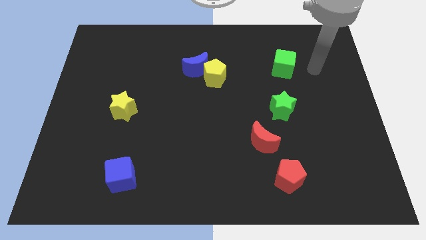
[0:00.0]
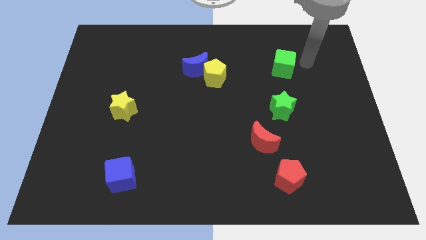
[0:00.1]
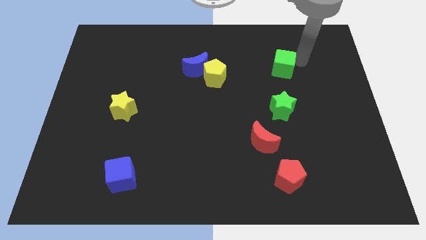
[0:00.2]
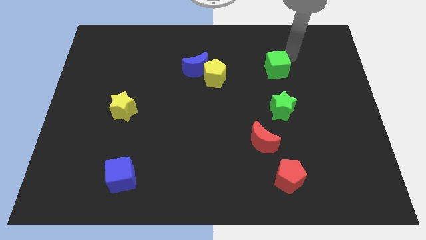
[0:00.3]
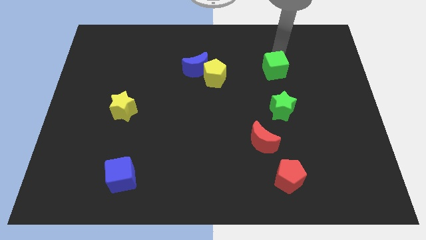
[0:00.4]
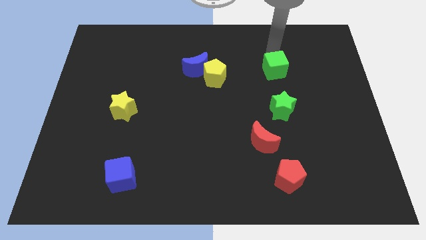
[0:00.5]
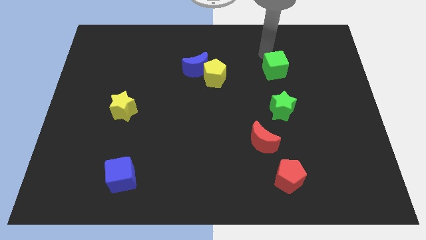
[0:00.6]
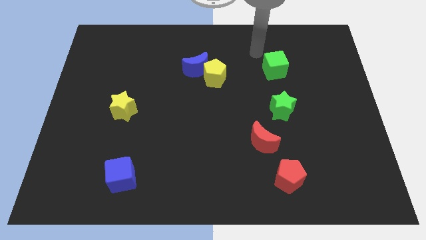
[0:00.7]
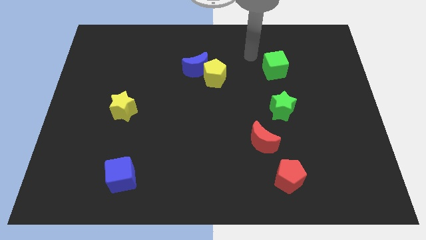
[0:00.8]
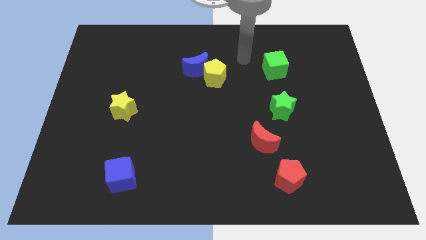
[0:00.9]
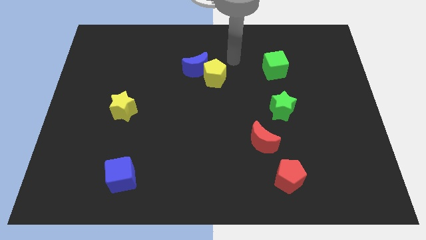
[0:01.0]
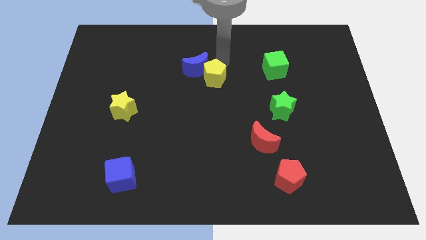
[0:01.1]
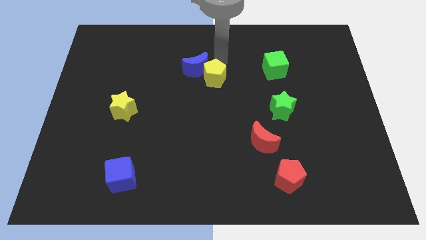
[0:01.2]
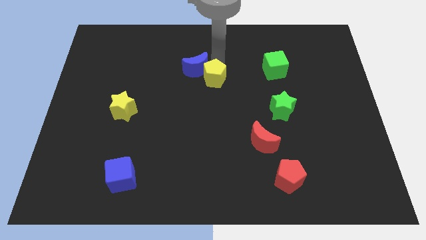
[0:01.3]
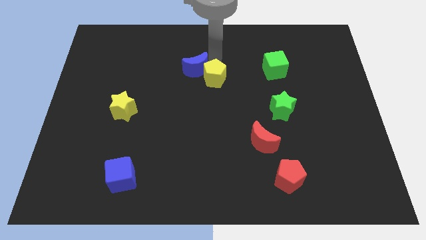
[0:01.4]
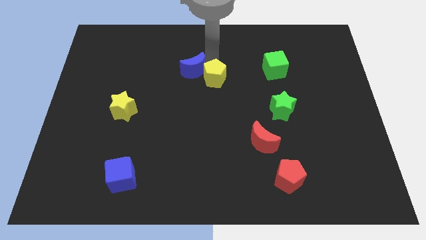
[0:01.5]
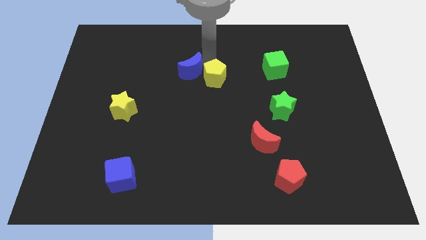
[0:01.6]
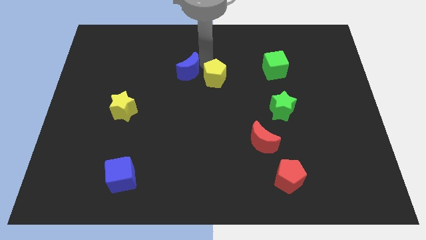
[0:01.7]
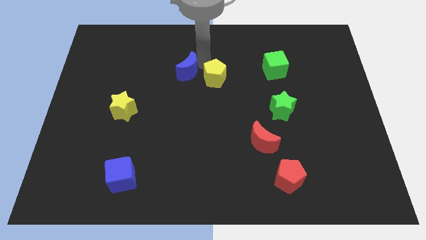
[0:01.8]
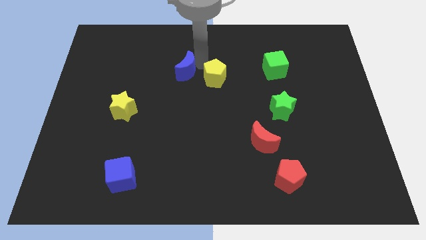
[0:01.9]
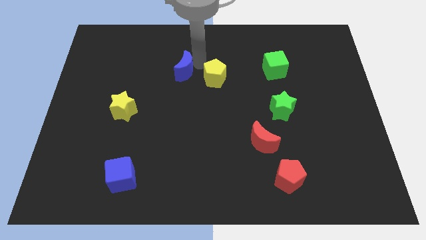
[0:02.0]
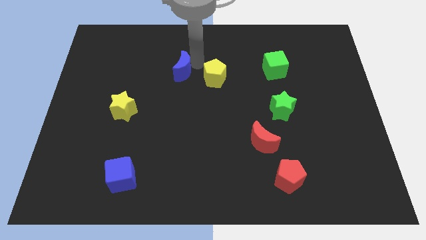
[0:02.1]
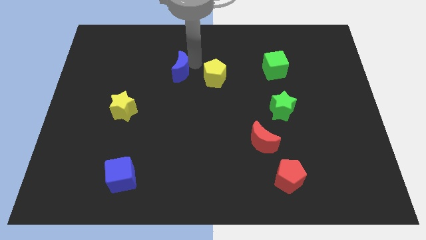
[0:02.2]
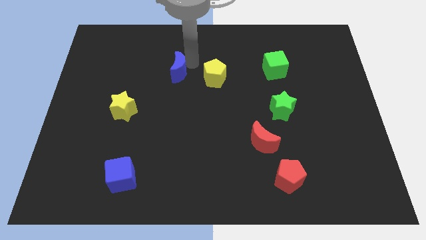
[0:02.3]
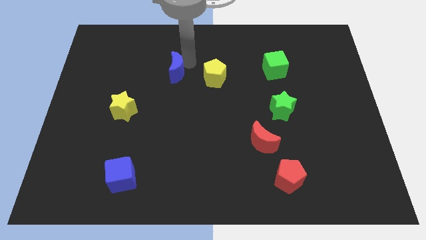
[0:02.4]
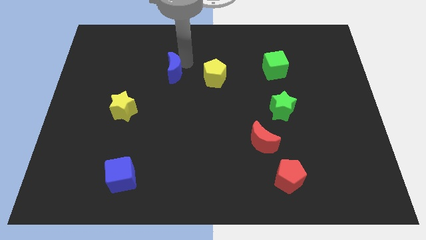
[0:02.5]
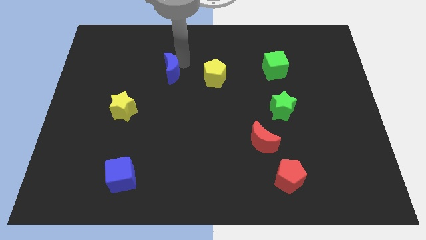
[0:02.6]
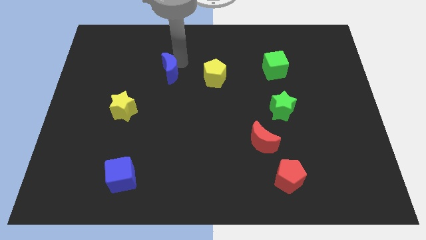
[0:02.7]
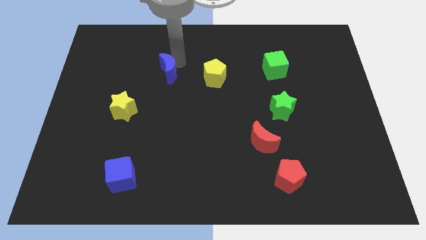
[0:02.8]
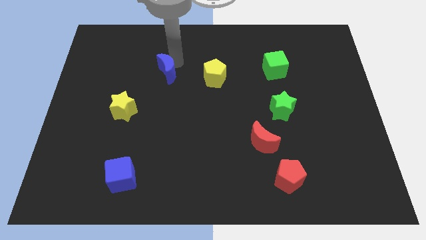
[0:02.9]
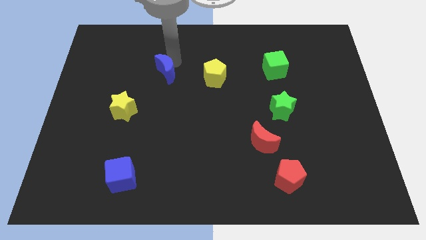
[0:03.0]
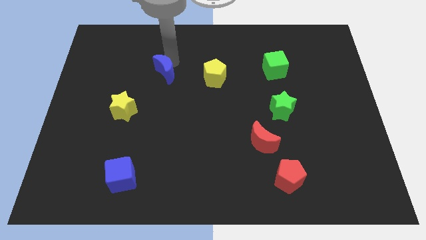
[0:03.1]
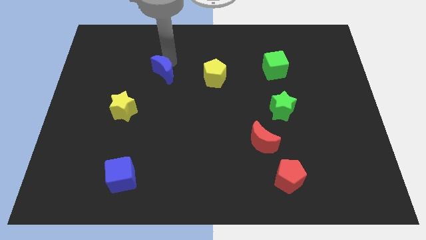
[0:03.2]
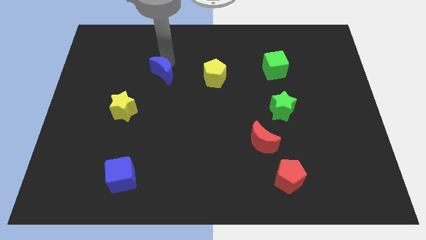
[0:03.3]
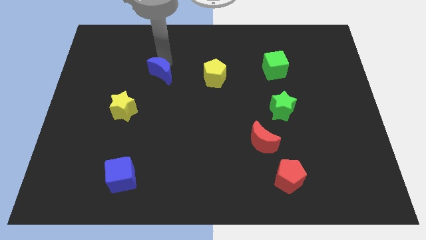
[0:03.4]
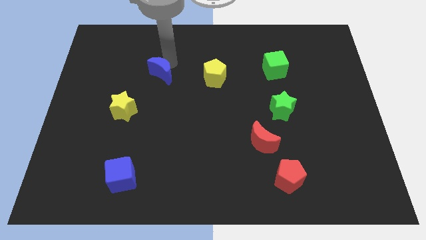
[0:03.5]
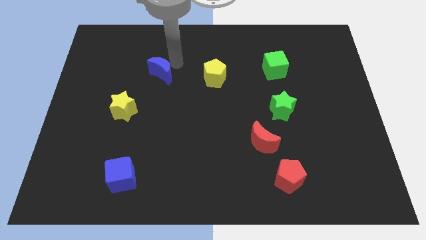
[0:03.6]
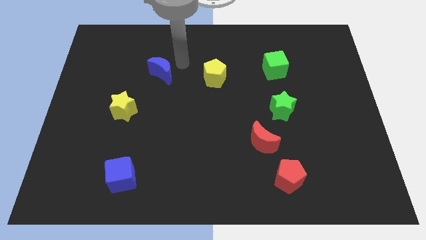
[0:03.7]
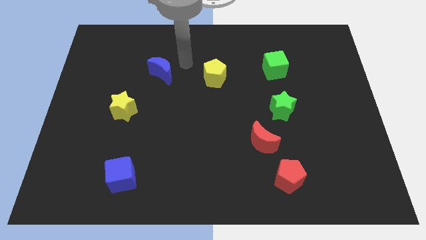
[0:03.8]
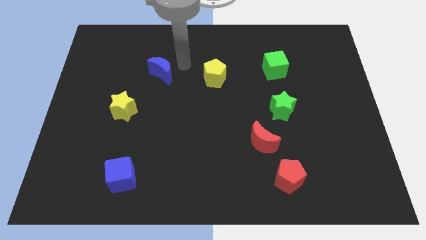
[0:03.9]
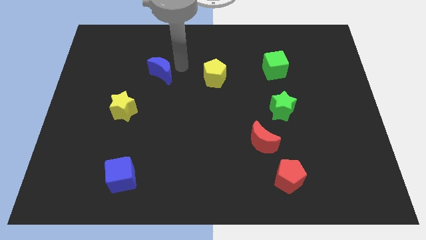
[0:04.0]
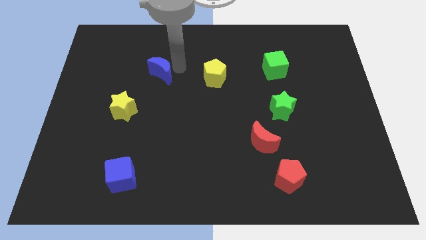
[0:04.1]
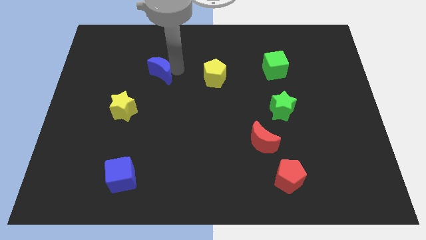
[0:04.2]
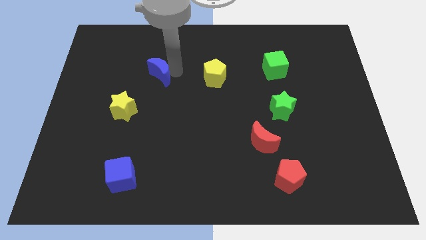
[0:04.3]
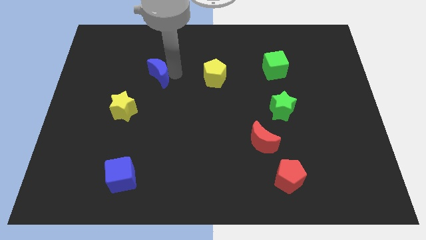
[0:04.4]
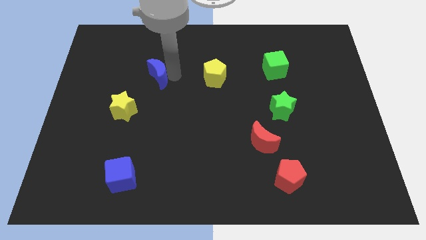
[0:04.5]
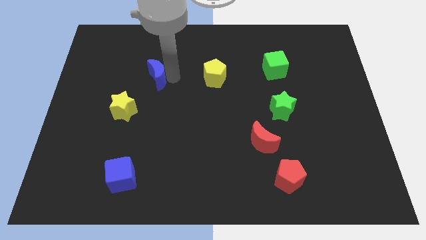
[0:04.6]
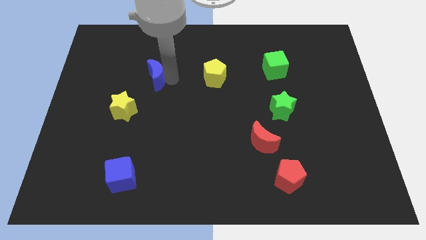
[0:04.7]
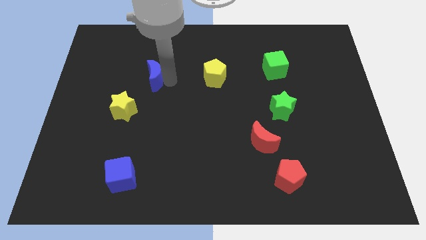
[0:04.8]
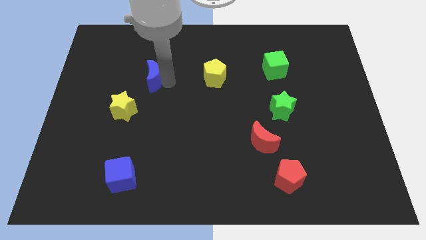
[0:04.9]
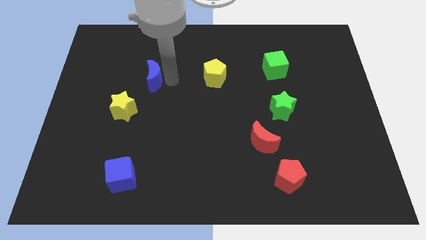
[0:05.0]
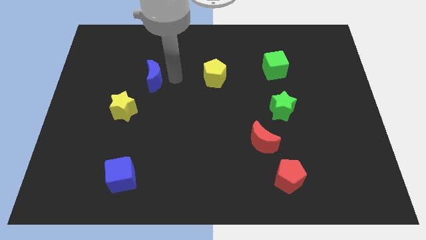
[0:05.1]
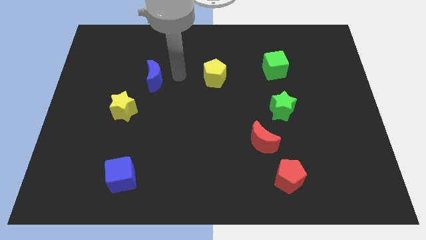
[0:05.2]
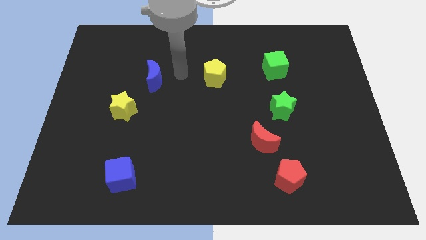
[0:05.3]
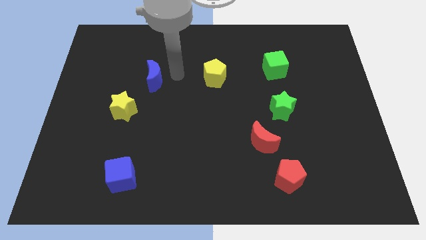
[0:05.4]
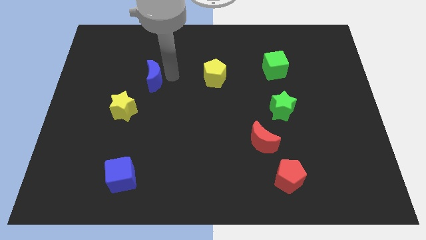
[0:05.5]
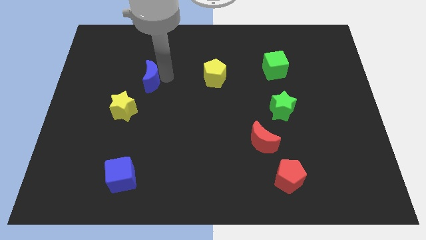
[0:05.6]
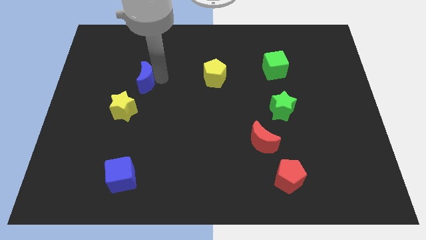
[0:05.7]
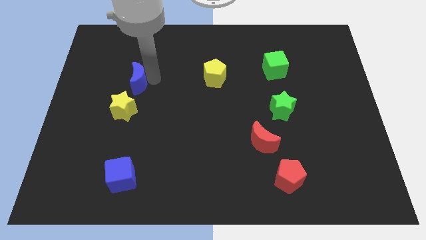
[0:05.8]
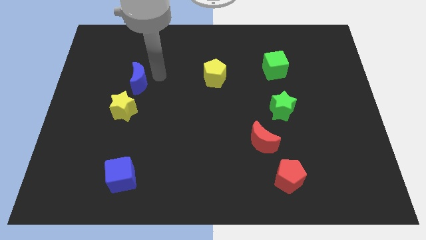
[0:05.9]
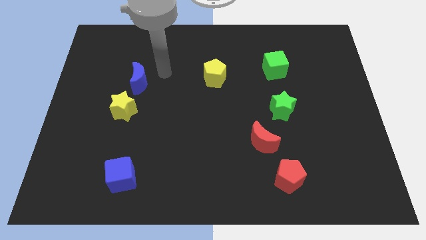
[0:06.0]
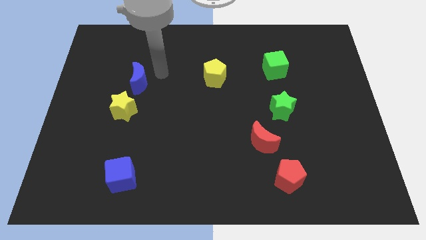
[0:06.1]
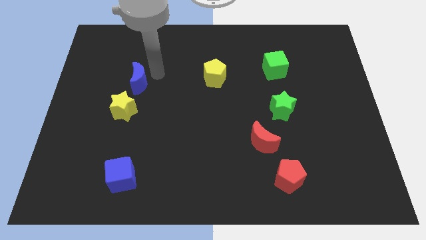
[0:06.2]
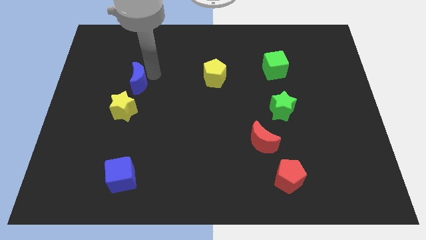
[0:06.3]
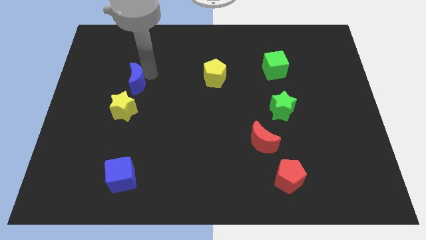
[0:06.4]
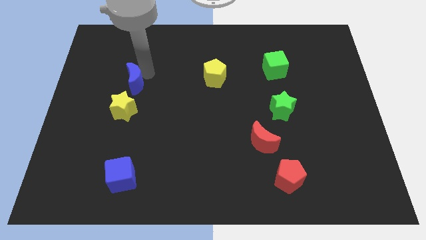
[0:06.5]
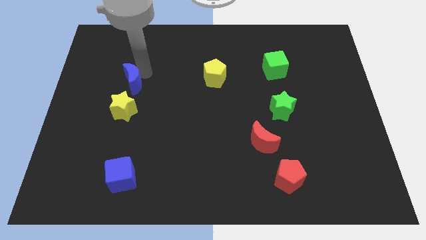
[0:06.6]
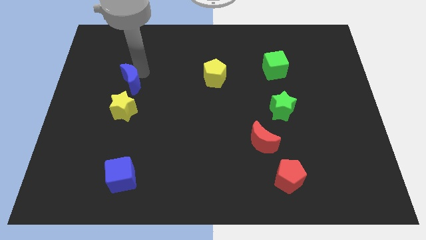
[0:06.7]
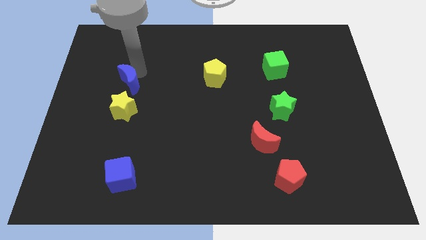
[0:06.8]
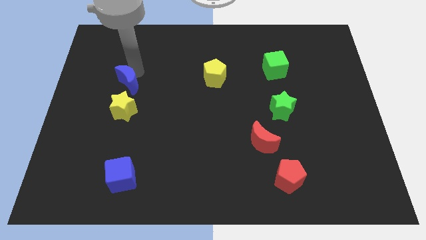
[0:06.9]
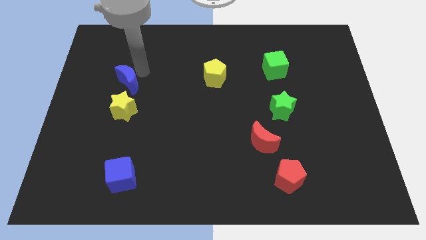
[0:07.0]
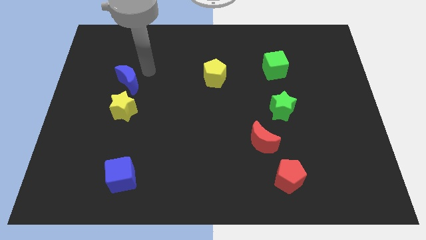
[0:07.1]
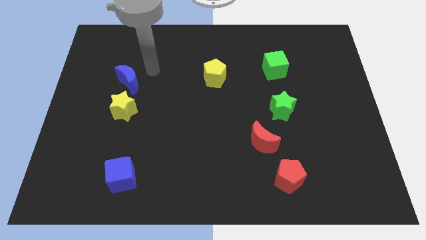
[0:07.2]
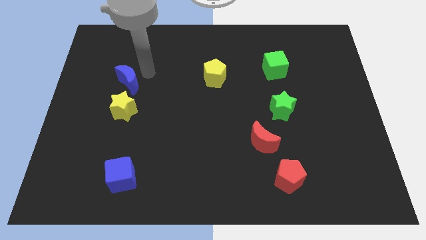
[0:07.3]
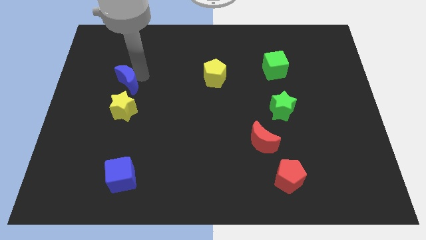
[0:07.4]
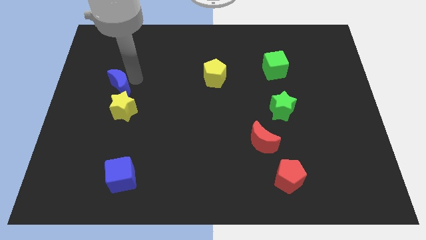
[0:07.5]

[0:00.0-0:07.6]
push the blue moon to the top left of the yellow star

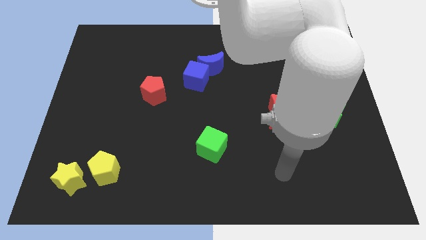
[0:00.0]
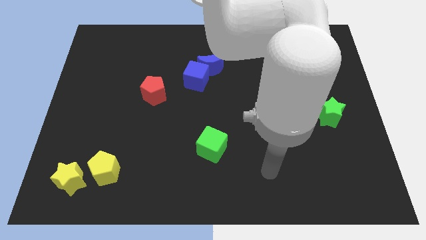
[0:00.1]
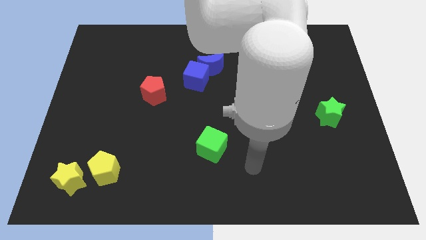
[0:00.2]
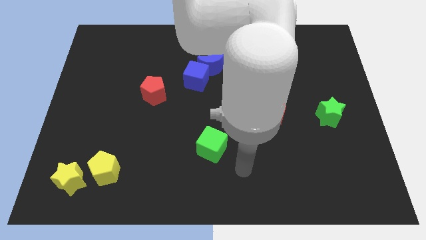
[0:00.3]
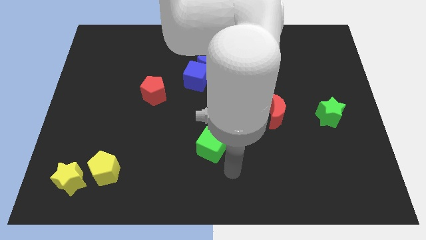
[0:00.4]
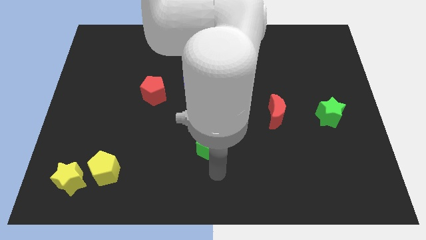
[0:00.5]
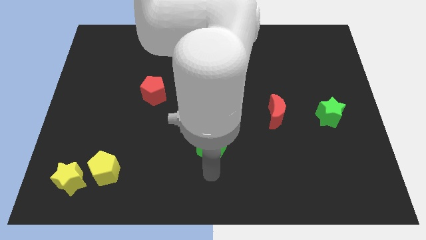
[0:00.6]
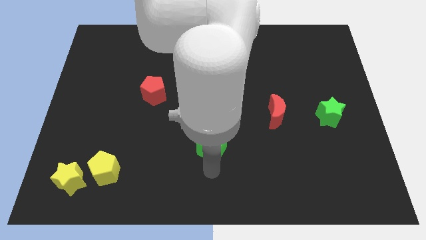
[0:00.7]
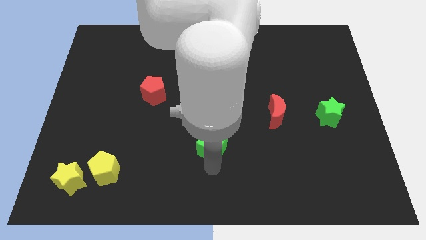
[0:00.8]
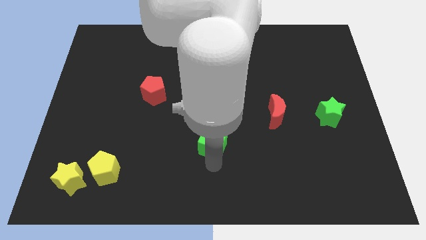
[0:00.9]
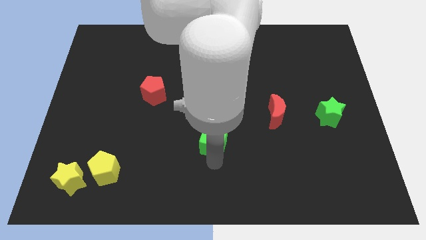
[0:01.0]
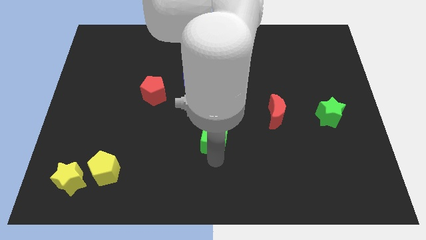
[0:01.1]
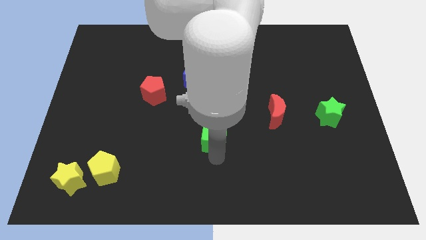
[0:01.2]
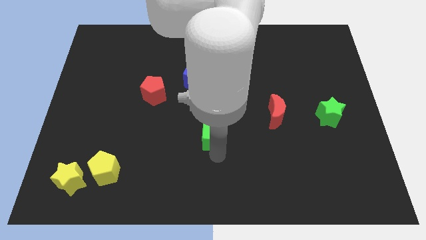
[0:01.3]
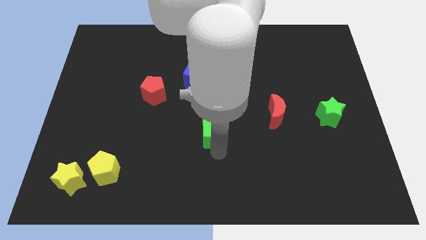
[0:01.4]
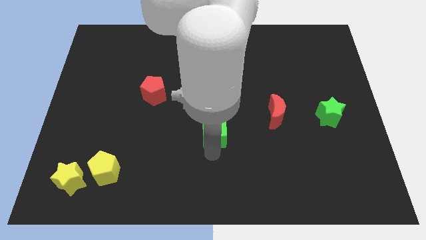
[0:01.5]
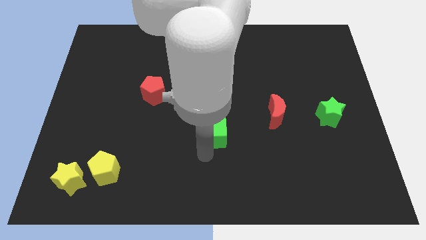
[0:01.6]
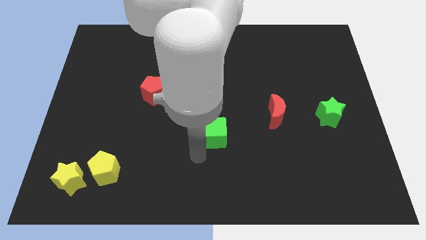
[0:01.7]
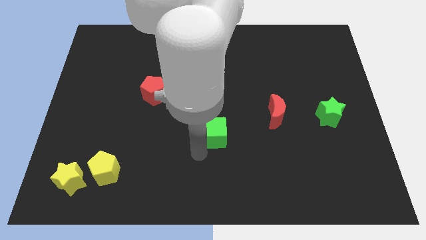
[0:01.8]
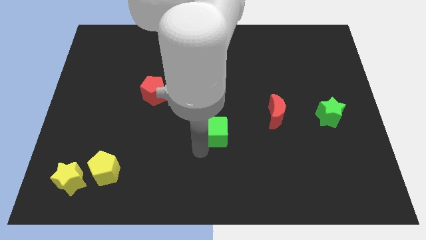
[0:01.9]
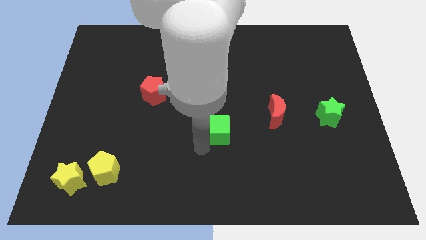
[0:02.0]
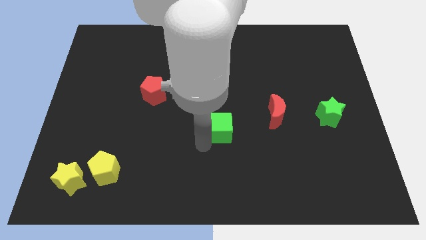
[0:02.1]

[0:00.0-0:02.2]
move the green cube left of the red moon
